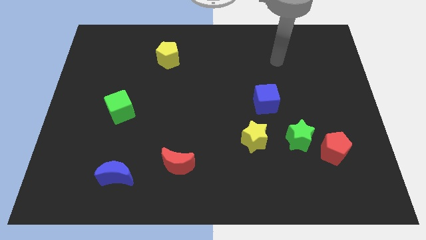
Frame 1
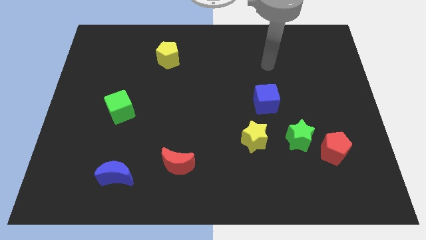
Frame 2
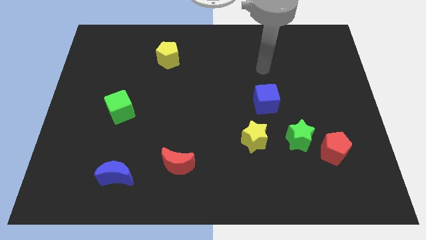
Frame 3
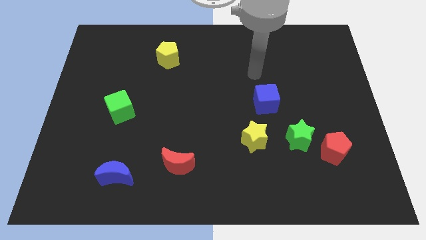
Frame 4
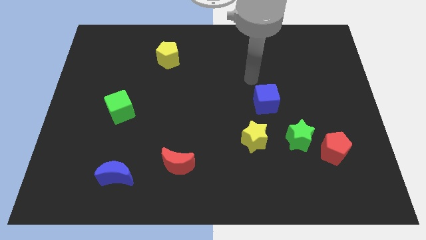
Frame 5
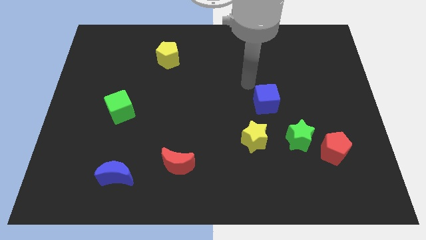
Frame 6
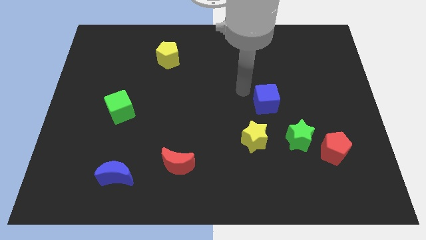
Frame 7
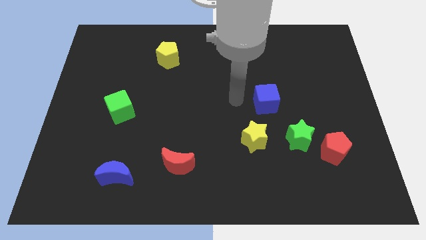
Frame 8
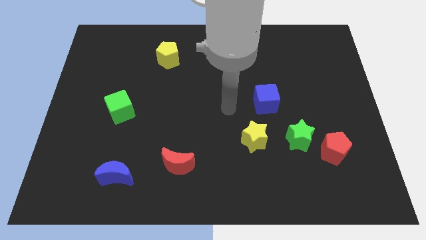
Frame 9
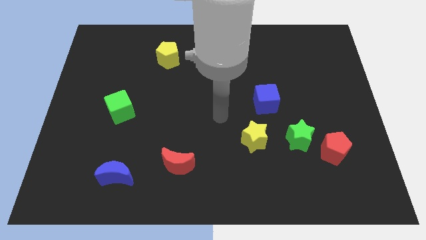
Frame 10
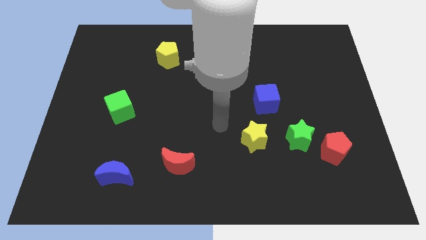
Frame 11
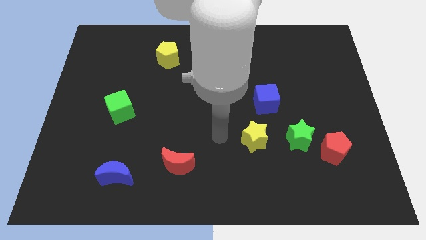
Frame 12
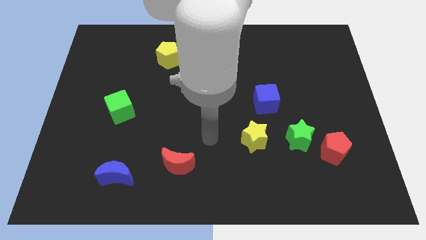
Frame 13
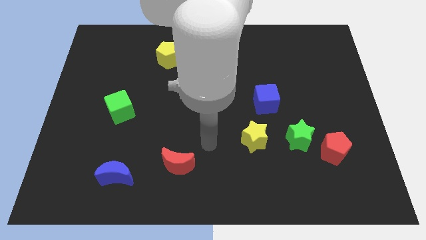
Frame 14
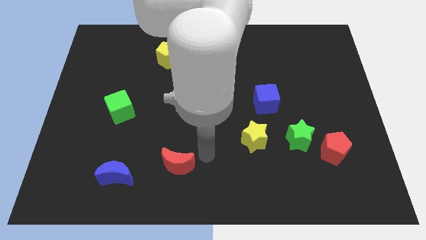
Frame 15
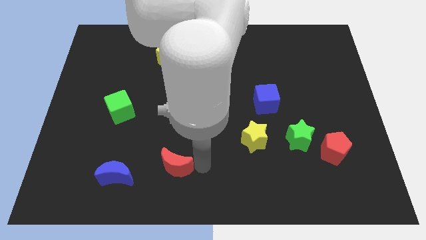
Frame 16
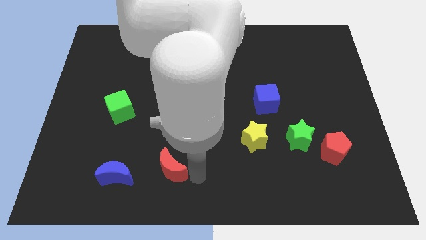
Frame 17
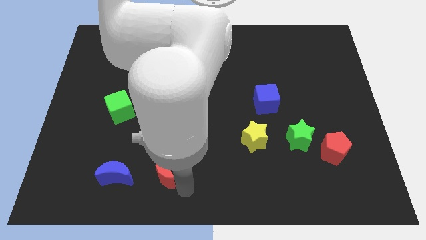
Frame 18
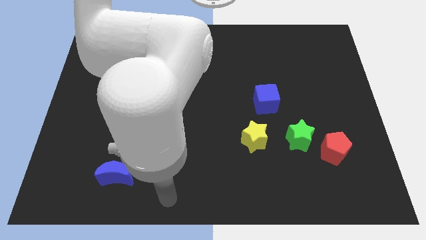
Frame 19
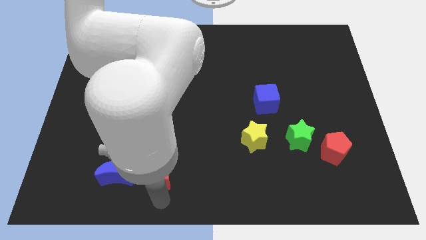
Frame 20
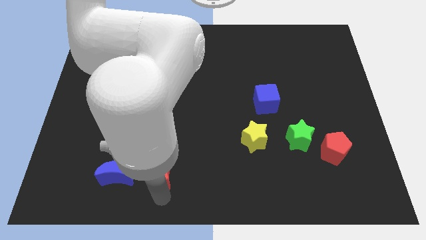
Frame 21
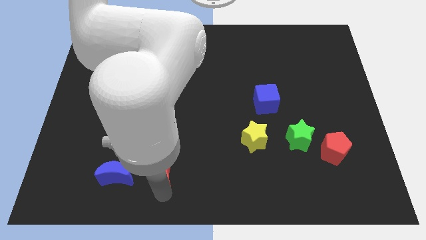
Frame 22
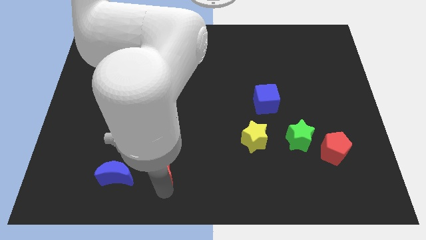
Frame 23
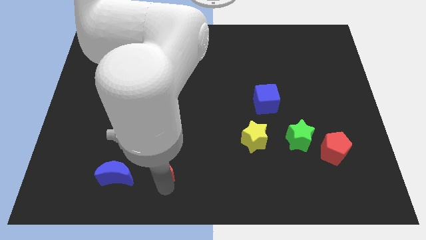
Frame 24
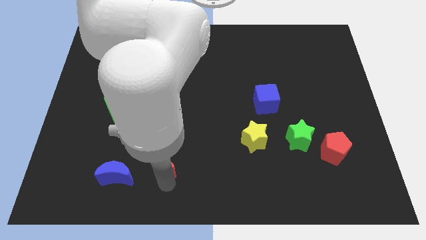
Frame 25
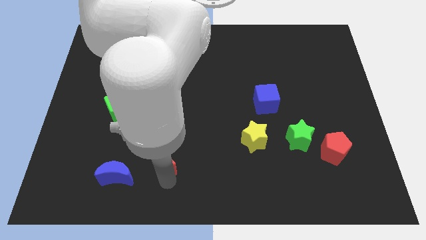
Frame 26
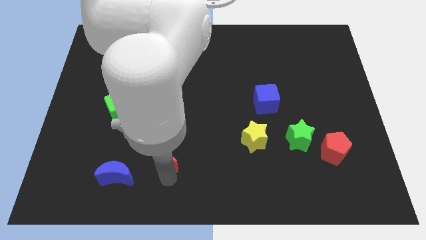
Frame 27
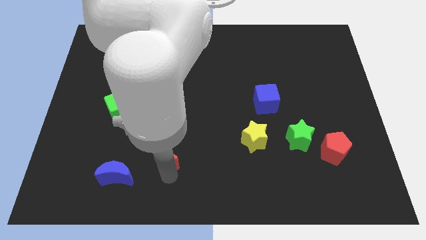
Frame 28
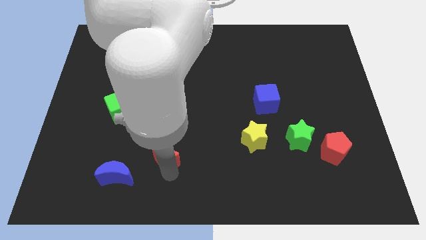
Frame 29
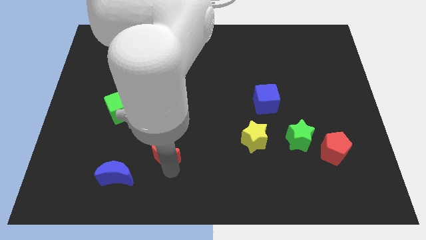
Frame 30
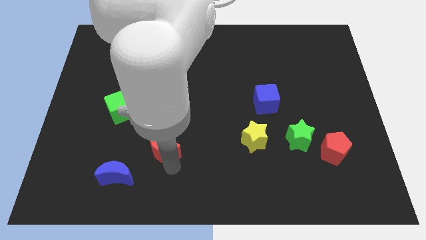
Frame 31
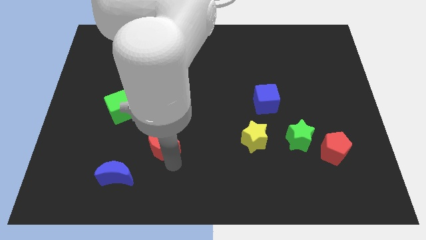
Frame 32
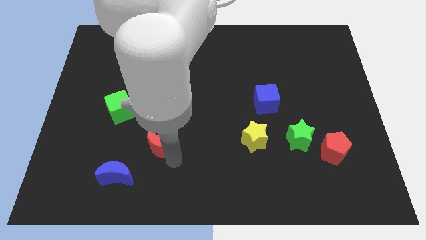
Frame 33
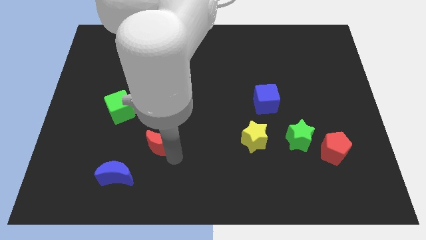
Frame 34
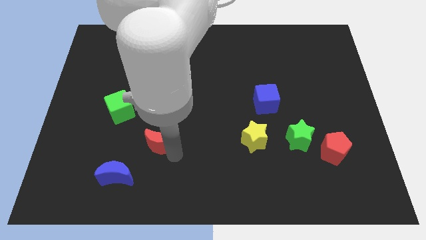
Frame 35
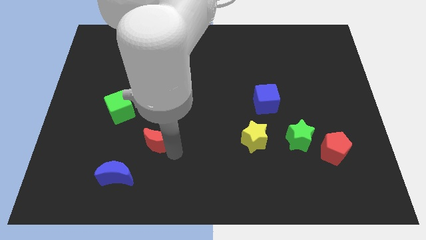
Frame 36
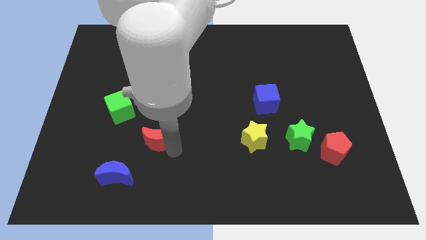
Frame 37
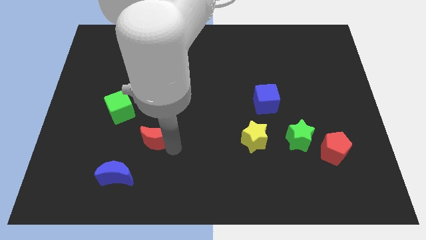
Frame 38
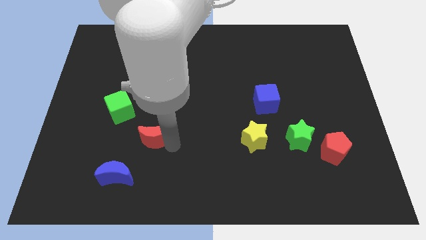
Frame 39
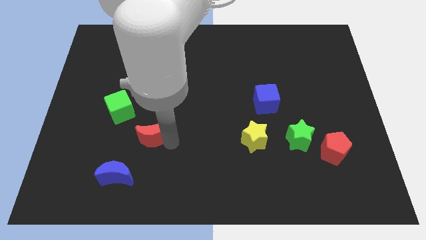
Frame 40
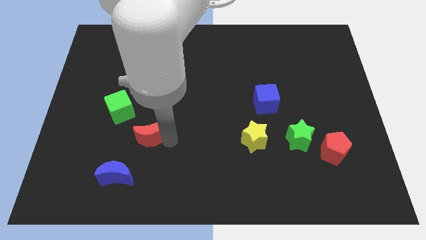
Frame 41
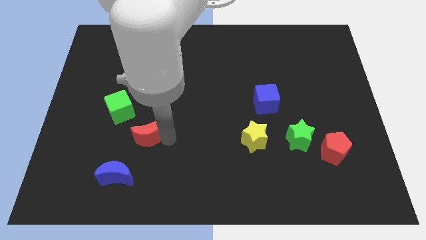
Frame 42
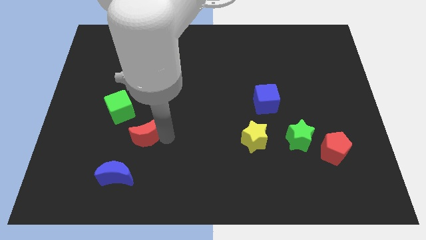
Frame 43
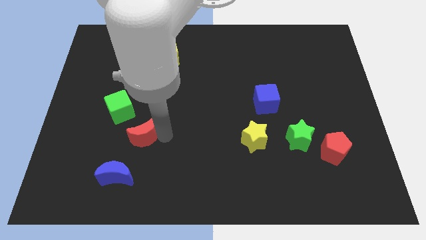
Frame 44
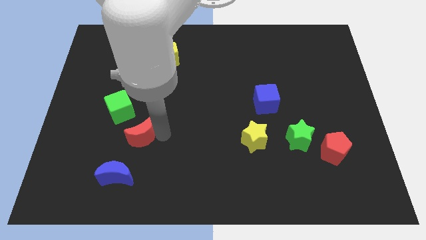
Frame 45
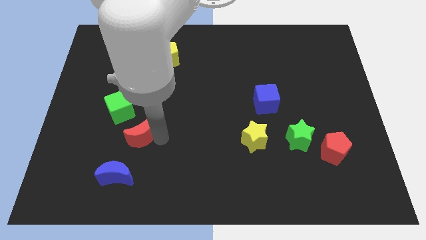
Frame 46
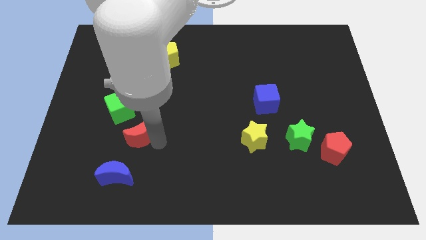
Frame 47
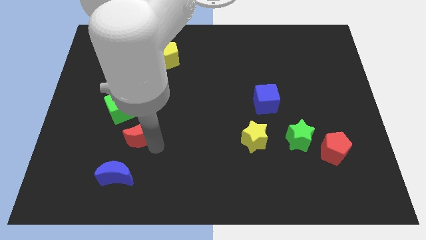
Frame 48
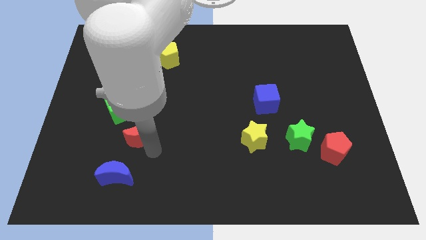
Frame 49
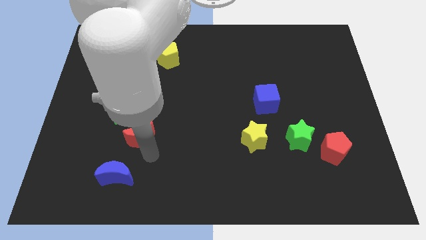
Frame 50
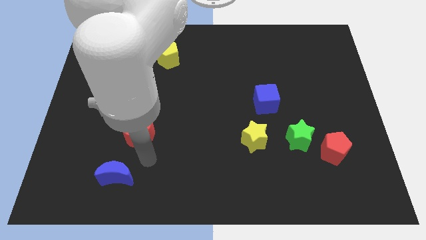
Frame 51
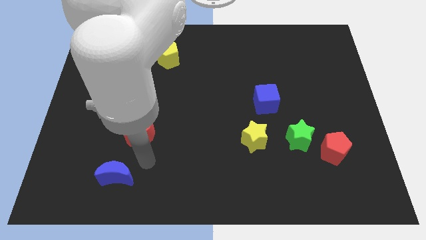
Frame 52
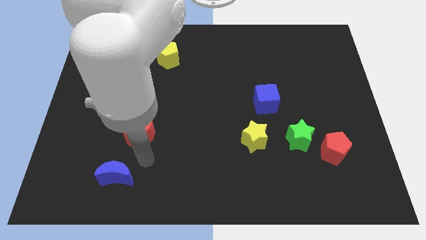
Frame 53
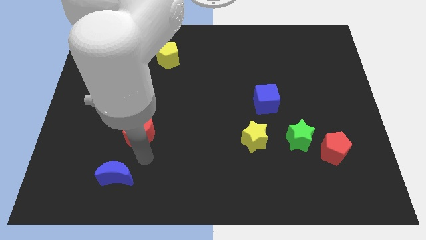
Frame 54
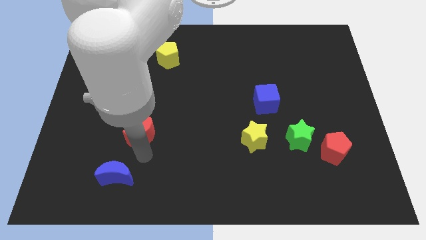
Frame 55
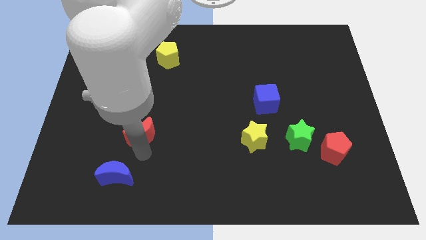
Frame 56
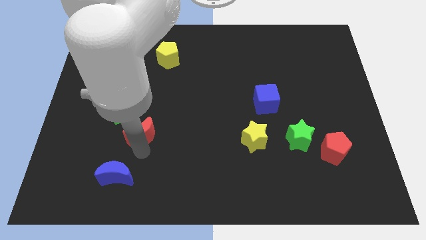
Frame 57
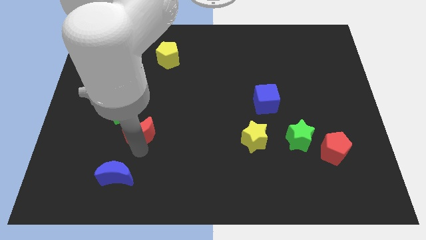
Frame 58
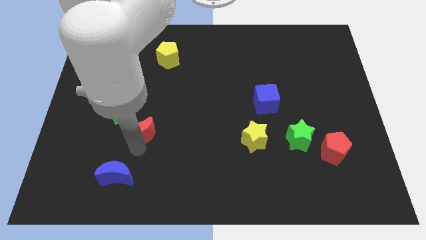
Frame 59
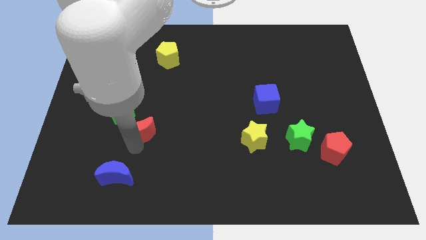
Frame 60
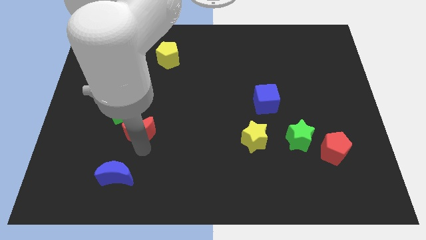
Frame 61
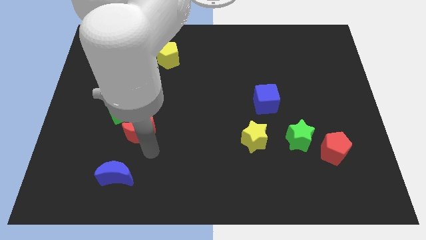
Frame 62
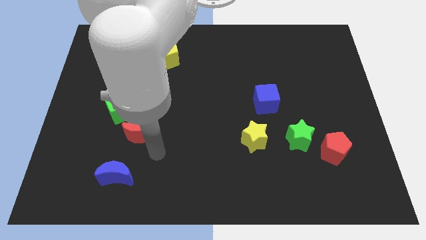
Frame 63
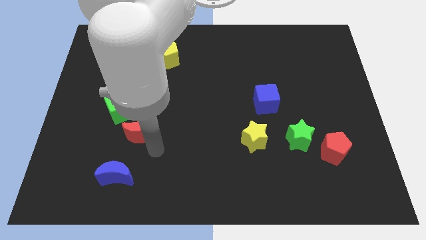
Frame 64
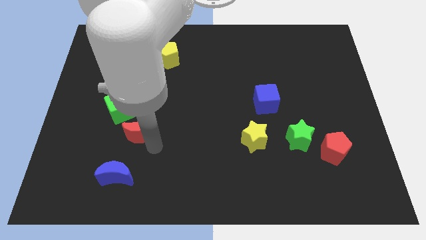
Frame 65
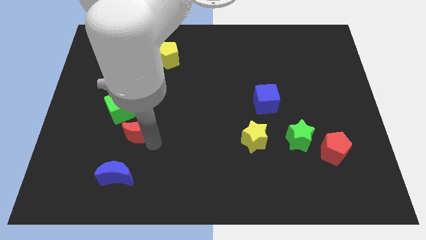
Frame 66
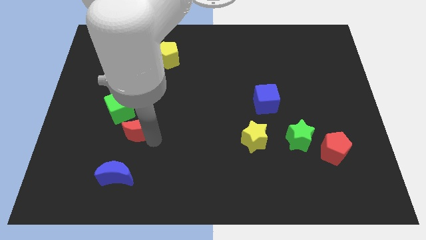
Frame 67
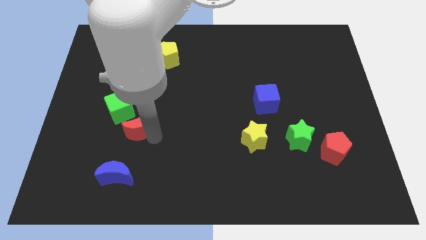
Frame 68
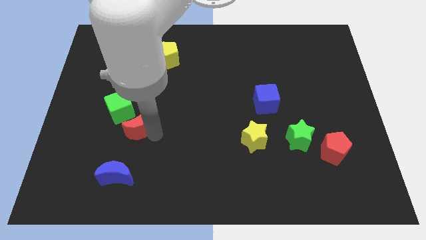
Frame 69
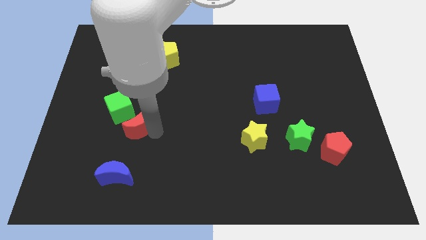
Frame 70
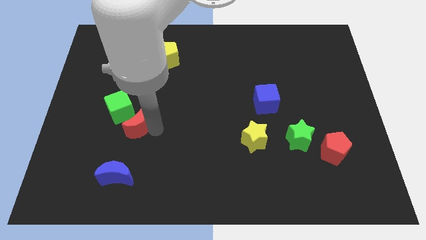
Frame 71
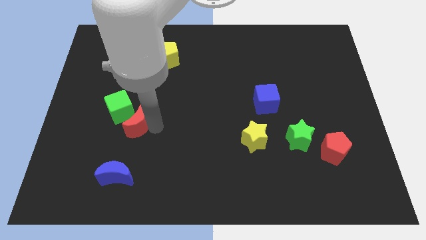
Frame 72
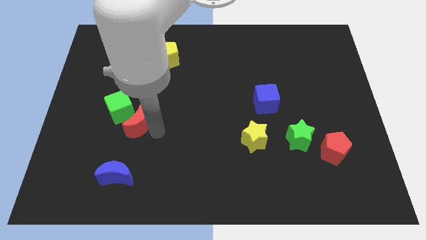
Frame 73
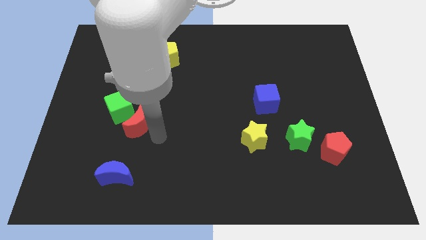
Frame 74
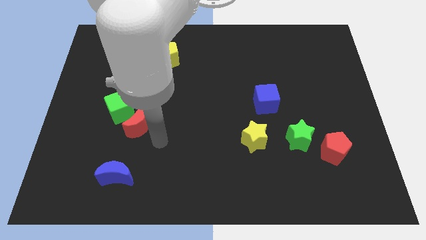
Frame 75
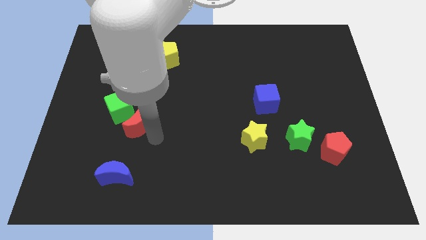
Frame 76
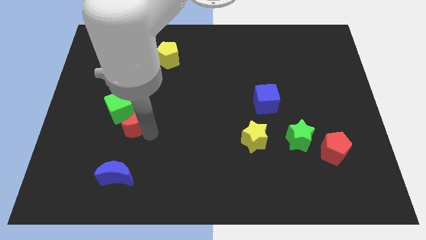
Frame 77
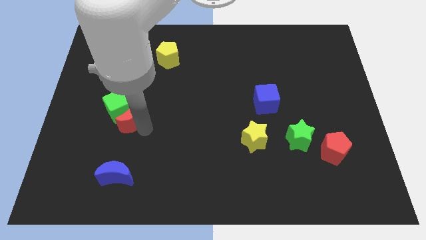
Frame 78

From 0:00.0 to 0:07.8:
put the red moon close to the green cube
